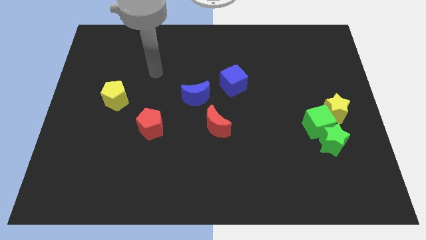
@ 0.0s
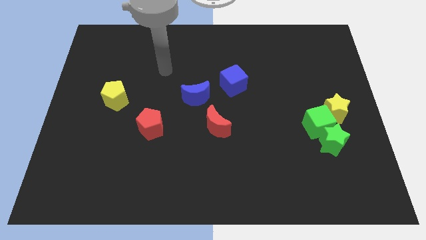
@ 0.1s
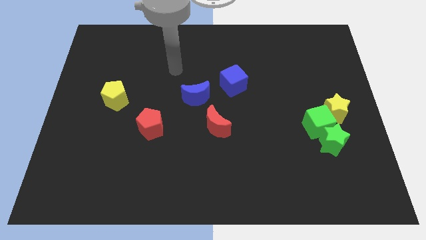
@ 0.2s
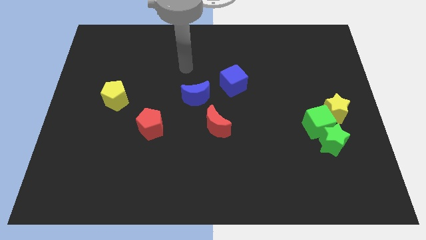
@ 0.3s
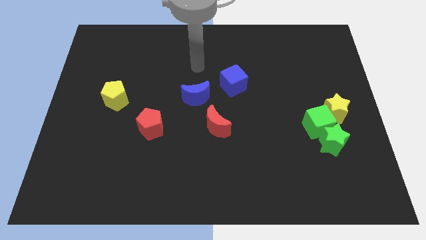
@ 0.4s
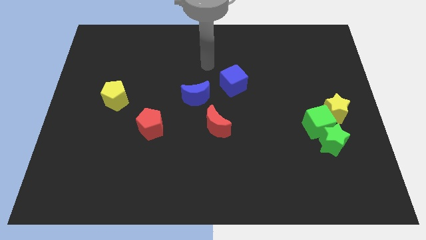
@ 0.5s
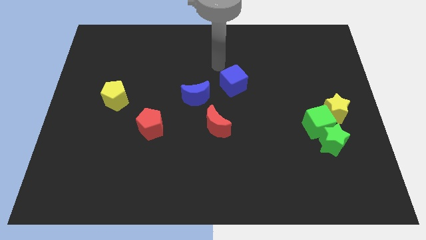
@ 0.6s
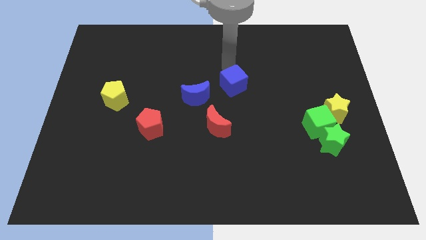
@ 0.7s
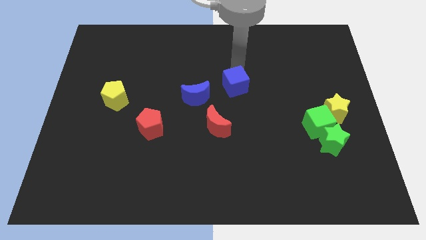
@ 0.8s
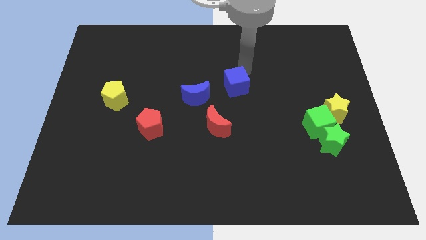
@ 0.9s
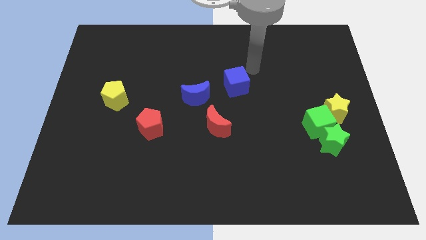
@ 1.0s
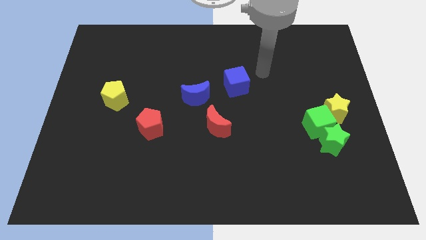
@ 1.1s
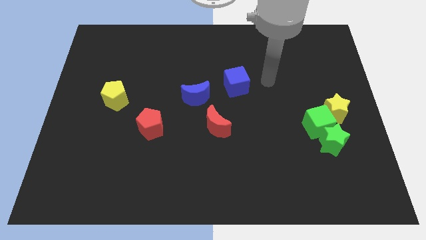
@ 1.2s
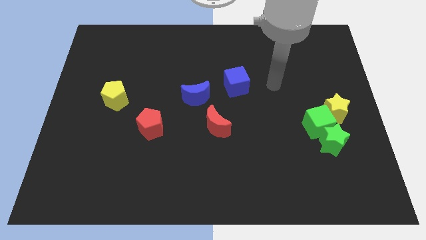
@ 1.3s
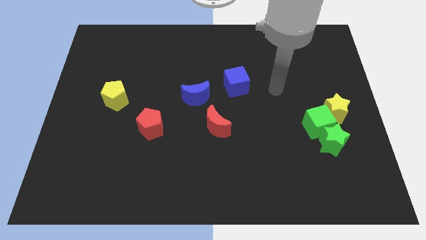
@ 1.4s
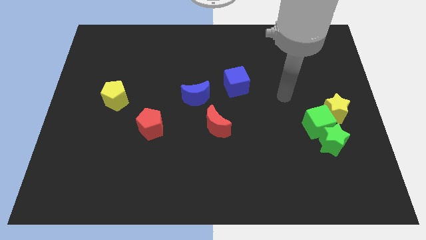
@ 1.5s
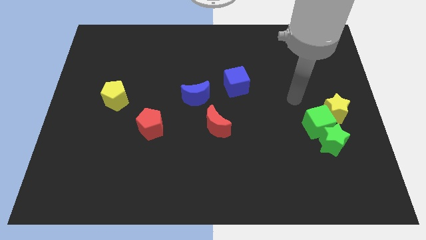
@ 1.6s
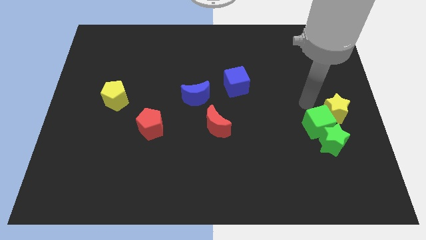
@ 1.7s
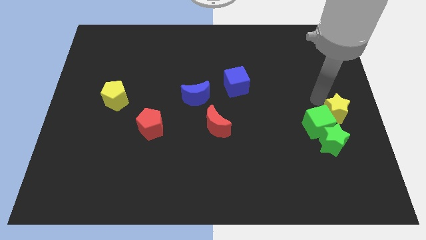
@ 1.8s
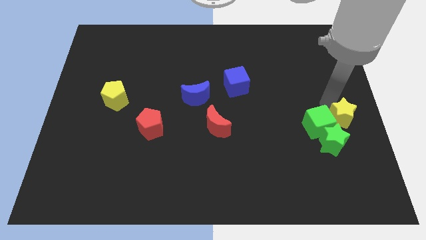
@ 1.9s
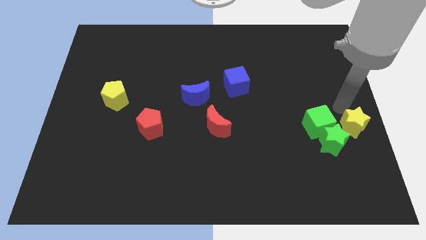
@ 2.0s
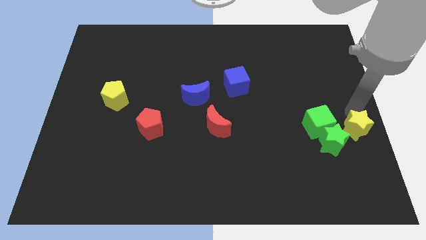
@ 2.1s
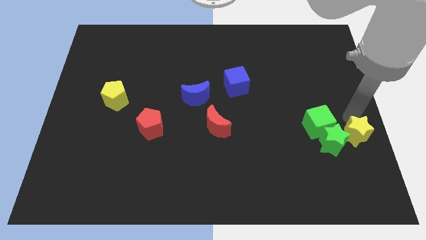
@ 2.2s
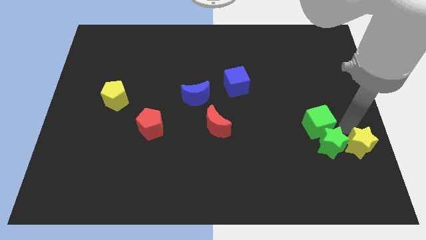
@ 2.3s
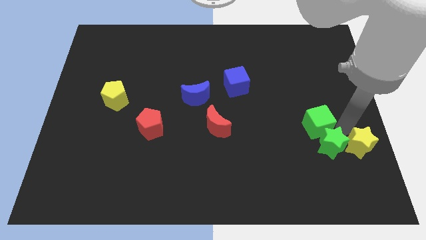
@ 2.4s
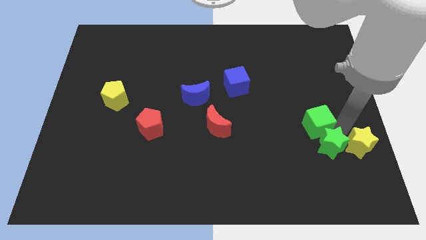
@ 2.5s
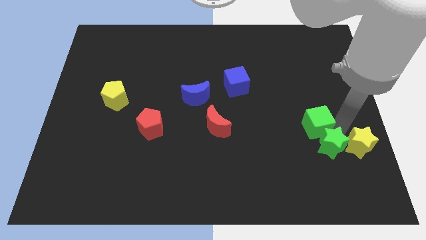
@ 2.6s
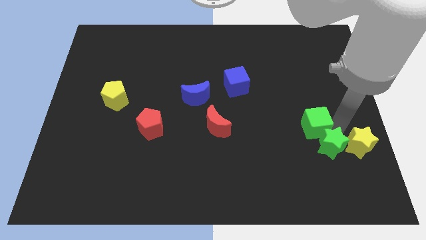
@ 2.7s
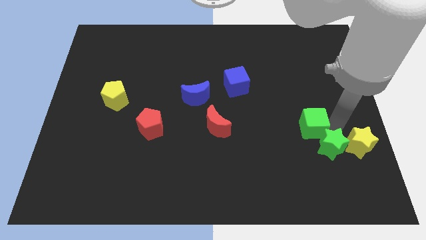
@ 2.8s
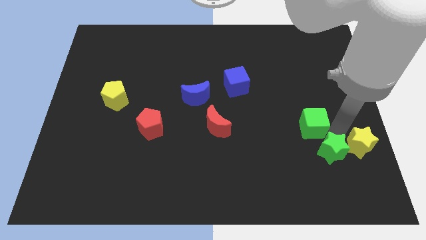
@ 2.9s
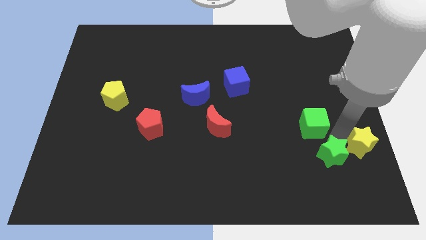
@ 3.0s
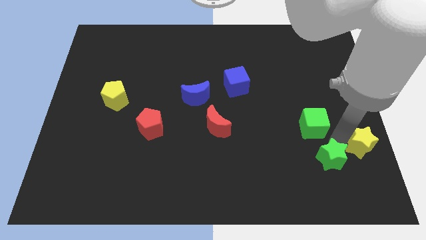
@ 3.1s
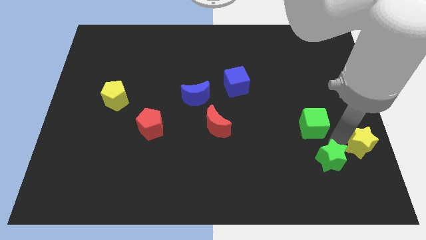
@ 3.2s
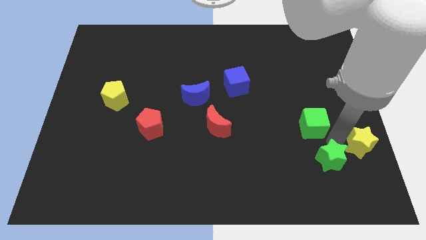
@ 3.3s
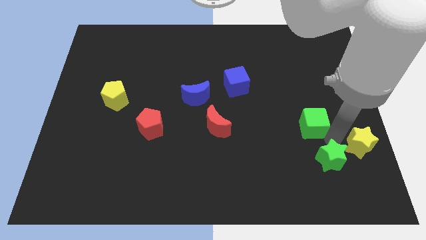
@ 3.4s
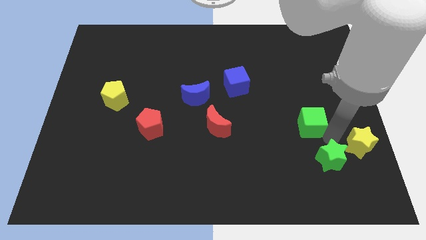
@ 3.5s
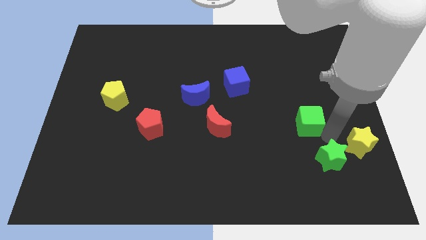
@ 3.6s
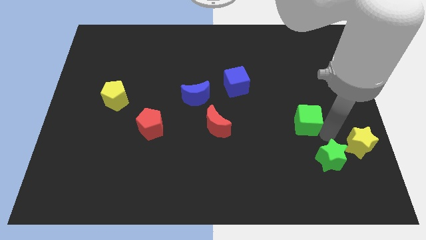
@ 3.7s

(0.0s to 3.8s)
pull the green cube apart from the green star and yellow star

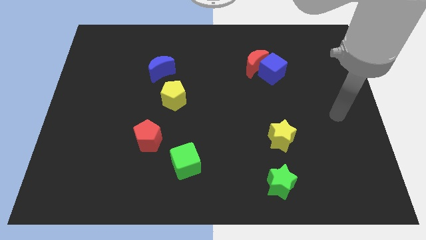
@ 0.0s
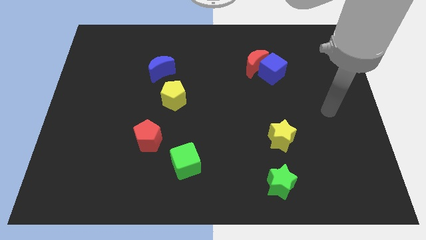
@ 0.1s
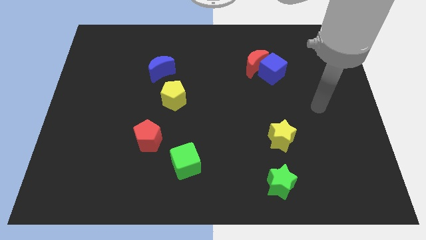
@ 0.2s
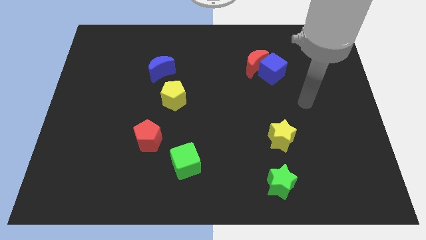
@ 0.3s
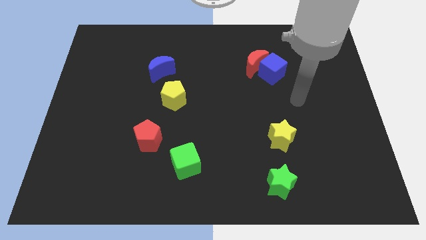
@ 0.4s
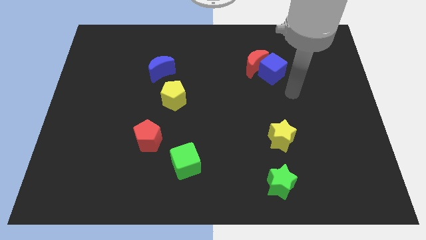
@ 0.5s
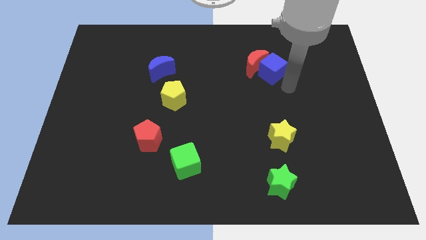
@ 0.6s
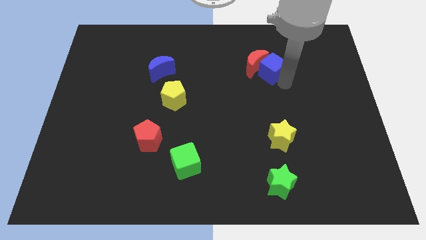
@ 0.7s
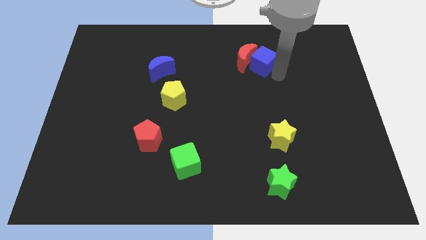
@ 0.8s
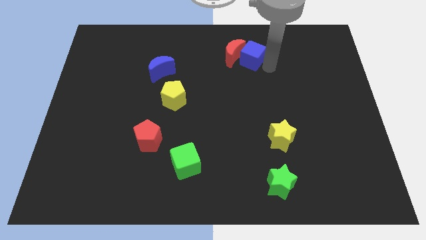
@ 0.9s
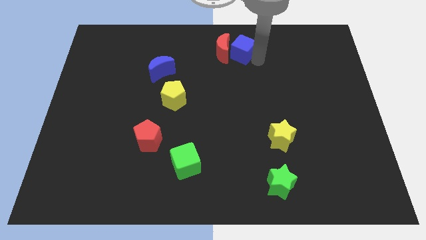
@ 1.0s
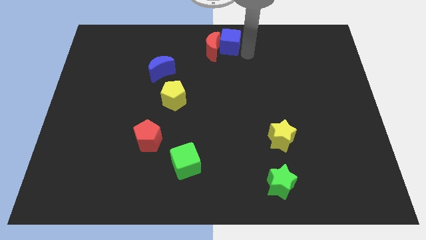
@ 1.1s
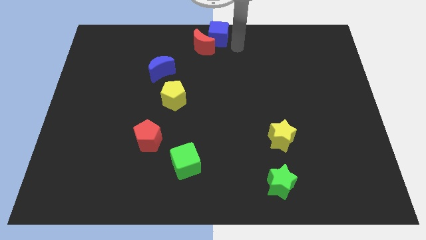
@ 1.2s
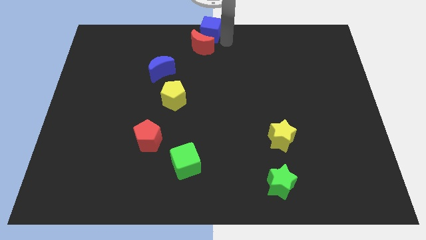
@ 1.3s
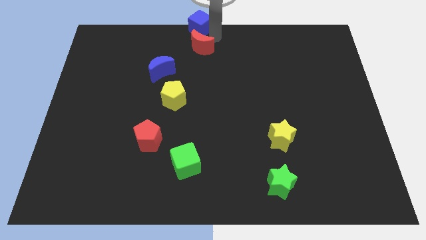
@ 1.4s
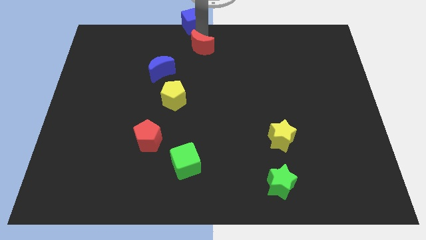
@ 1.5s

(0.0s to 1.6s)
pull the red moon apart from the blue cube

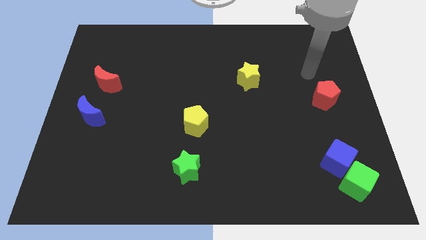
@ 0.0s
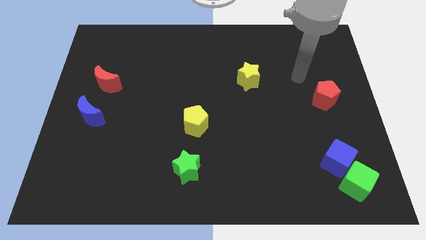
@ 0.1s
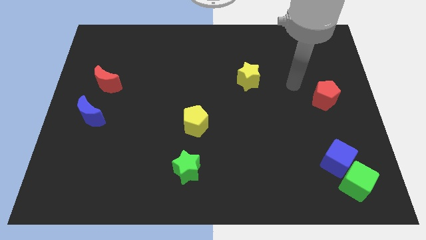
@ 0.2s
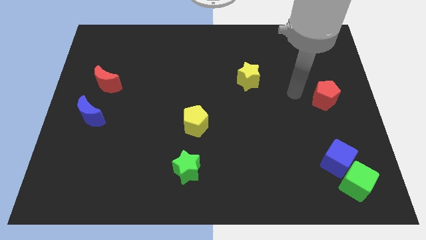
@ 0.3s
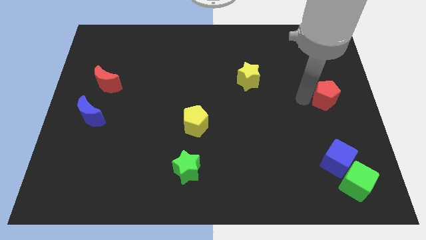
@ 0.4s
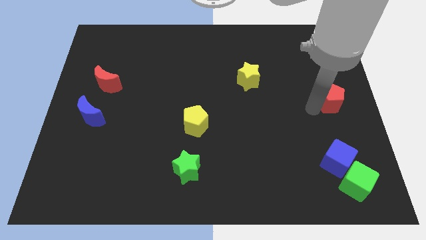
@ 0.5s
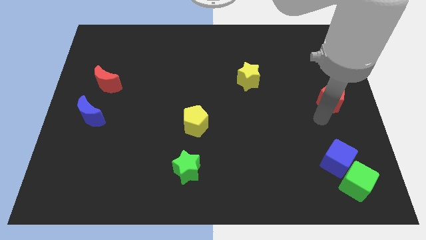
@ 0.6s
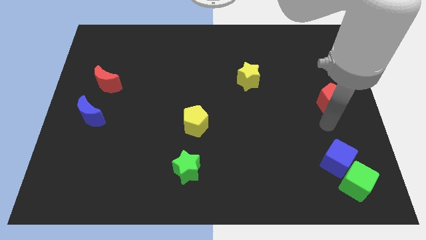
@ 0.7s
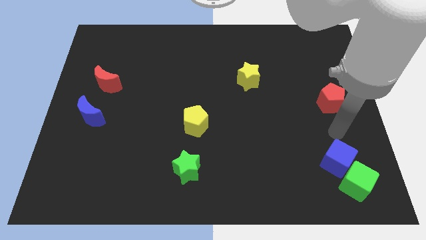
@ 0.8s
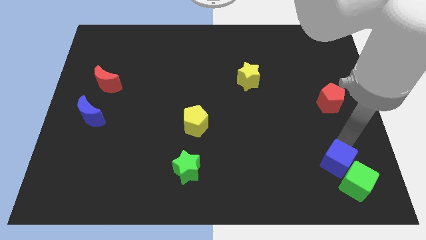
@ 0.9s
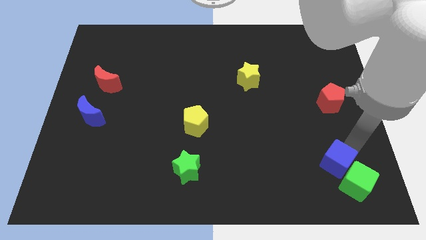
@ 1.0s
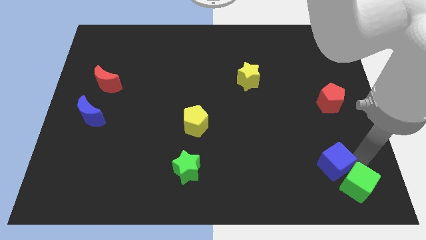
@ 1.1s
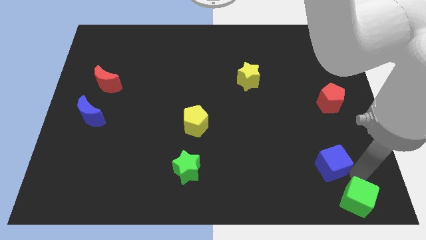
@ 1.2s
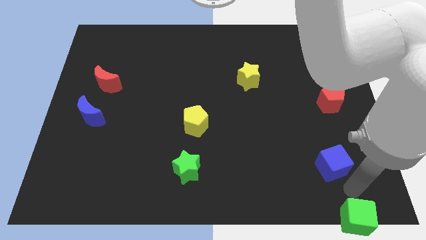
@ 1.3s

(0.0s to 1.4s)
move the blue cube away from the green cube

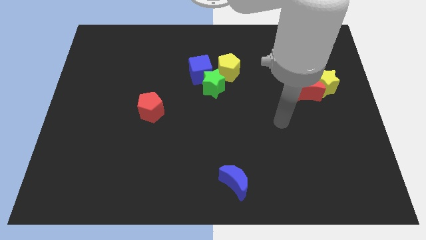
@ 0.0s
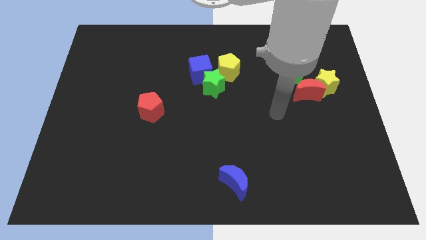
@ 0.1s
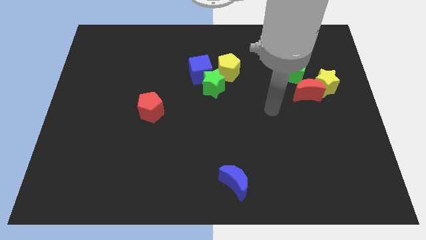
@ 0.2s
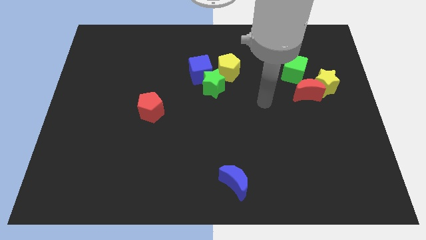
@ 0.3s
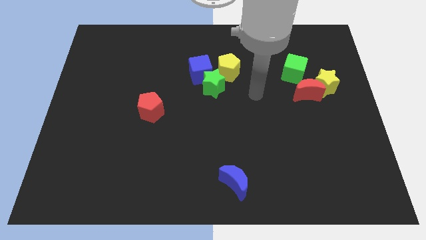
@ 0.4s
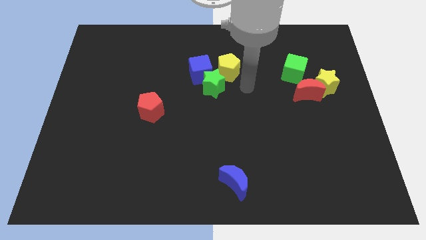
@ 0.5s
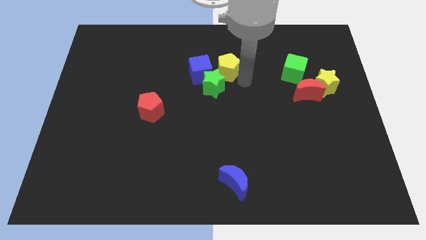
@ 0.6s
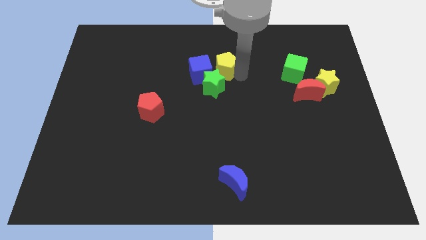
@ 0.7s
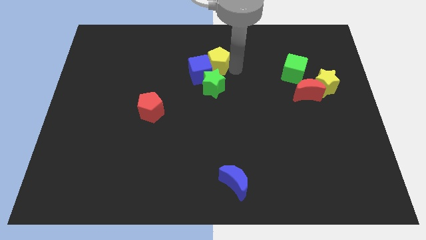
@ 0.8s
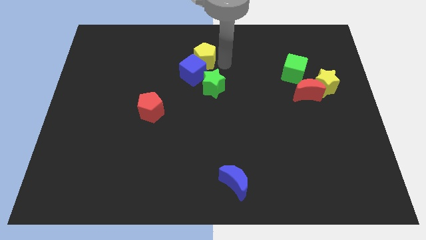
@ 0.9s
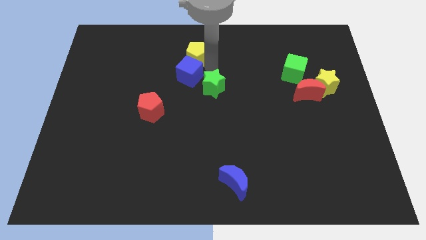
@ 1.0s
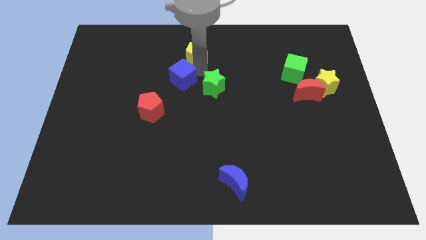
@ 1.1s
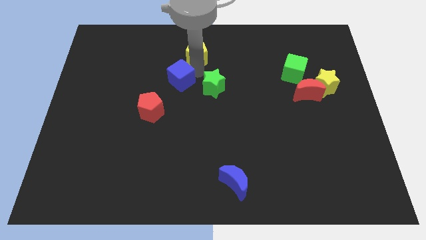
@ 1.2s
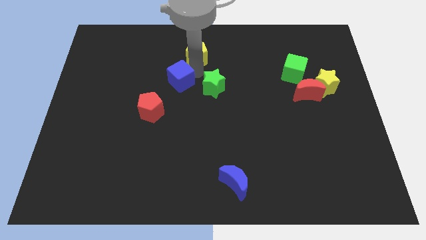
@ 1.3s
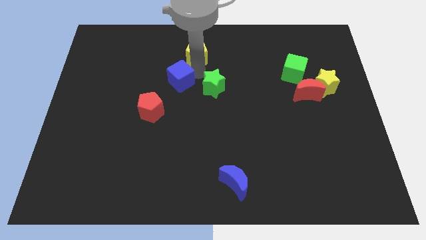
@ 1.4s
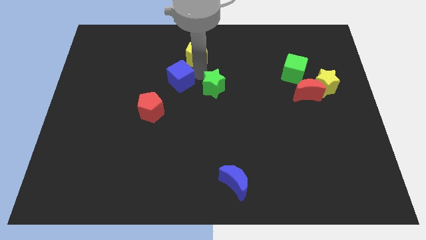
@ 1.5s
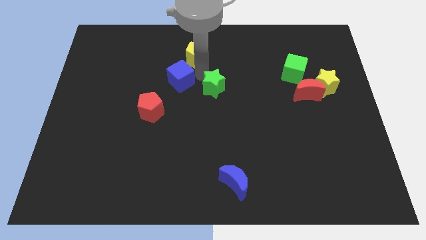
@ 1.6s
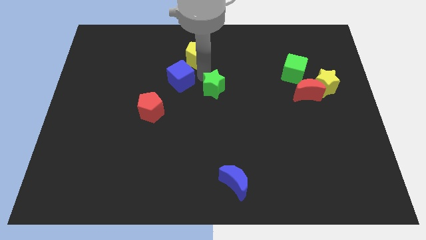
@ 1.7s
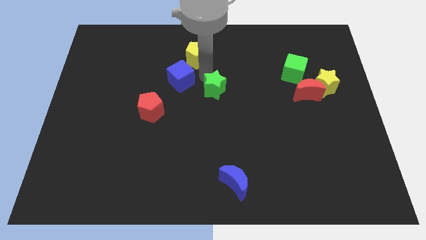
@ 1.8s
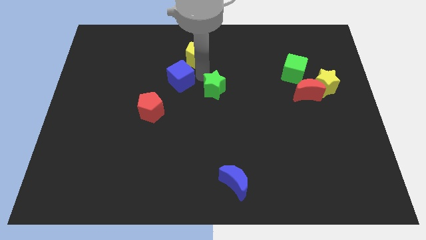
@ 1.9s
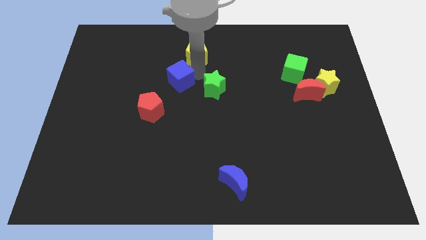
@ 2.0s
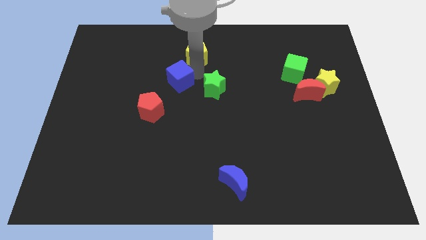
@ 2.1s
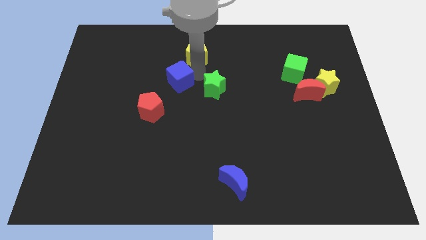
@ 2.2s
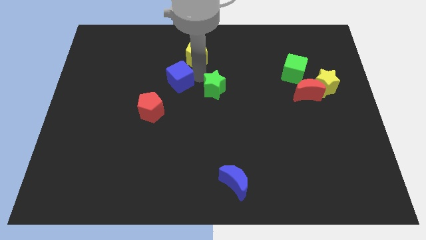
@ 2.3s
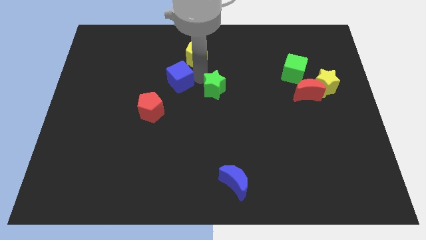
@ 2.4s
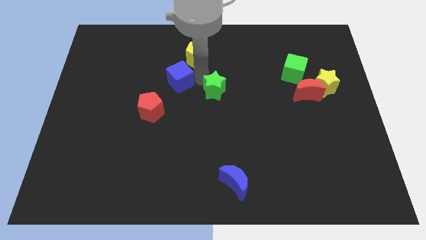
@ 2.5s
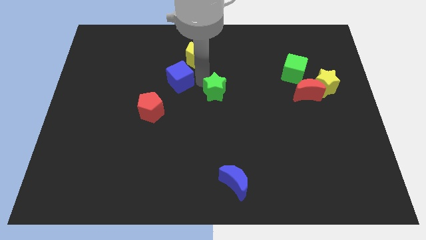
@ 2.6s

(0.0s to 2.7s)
move the green star away from the blue cube and yellow pentagon
